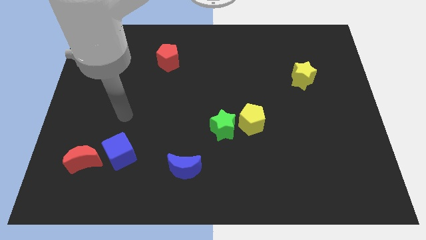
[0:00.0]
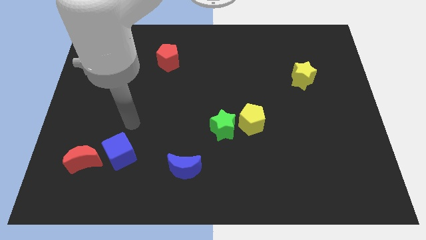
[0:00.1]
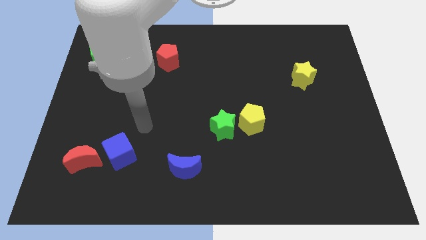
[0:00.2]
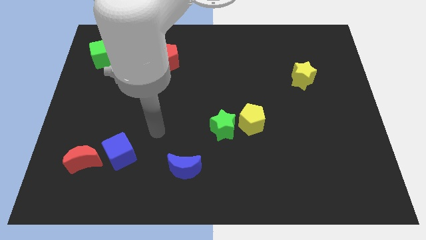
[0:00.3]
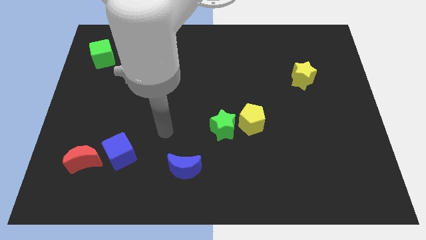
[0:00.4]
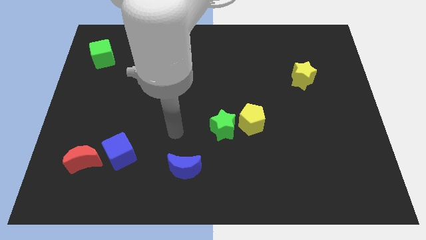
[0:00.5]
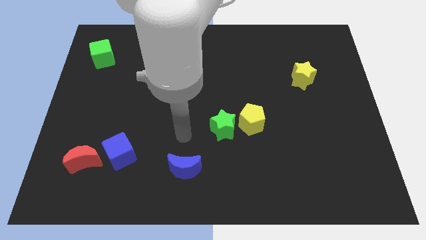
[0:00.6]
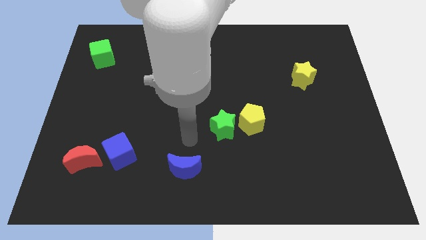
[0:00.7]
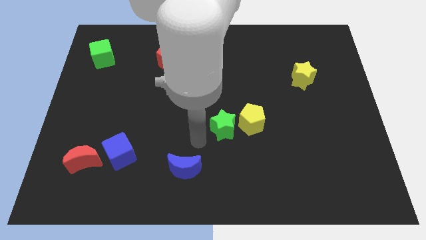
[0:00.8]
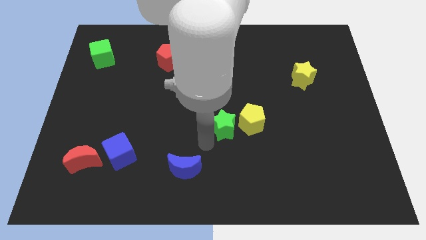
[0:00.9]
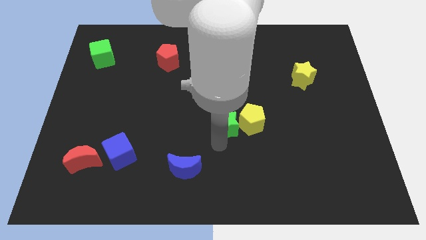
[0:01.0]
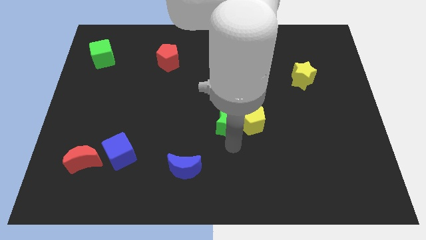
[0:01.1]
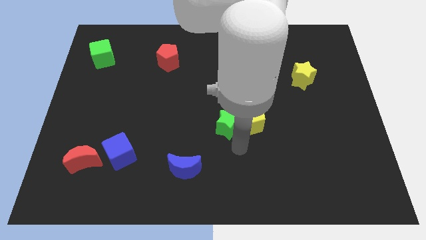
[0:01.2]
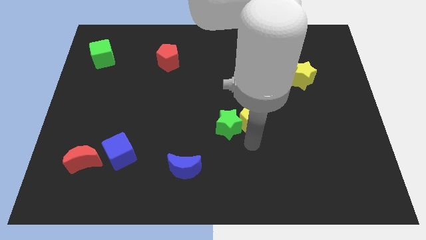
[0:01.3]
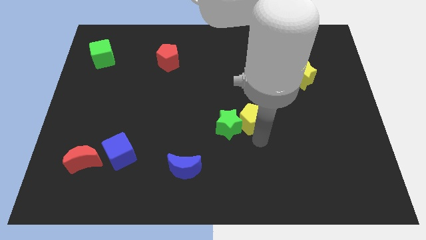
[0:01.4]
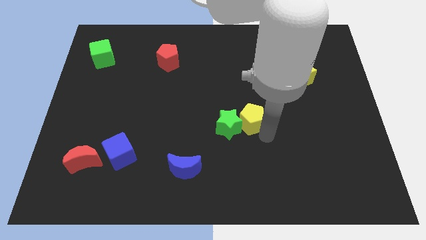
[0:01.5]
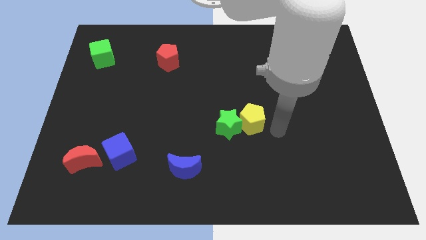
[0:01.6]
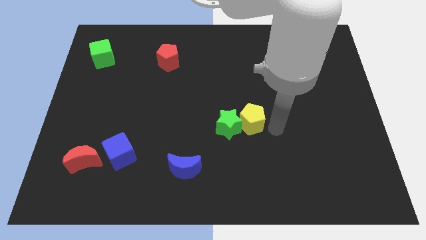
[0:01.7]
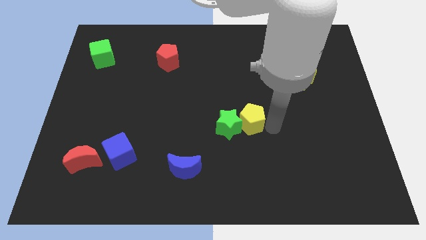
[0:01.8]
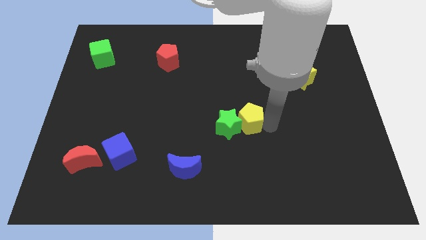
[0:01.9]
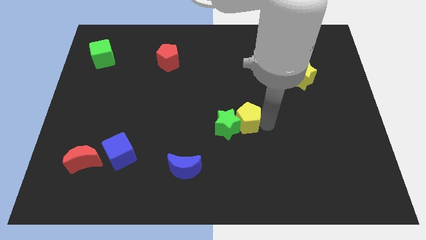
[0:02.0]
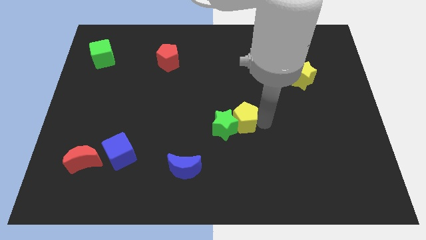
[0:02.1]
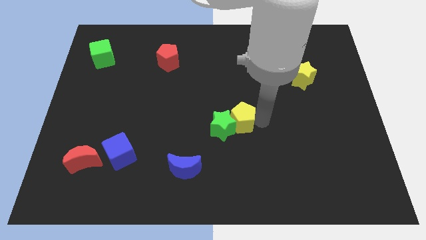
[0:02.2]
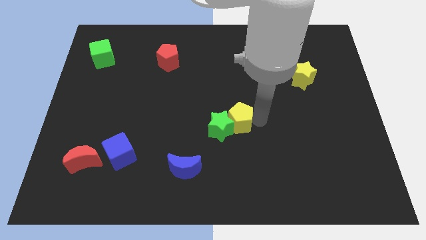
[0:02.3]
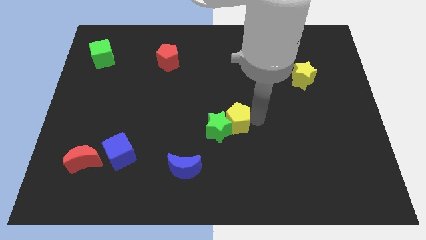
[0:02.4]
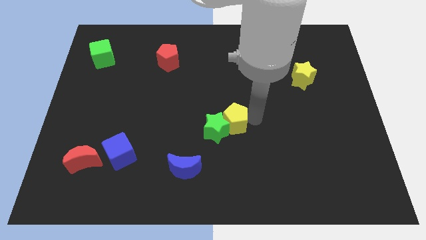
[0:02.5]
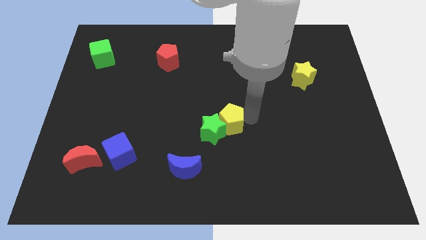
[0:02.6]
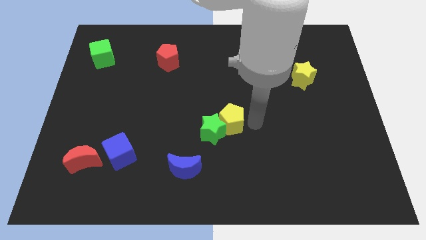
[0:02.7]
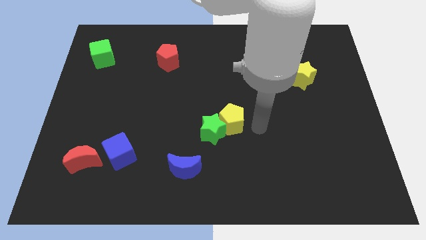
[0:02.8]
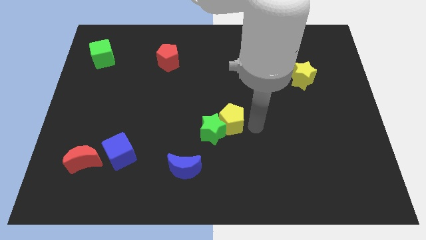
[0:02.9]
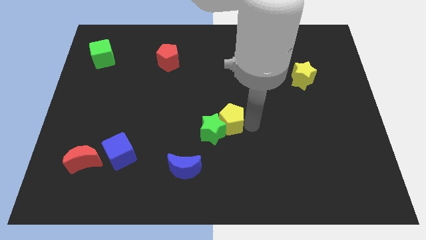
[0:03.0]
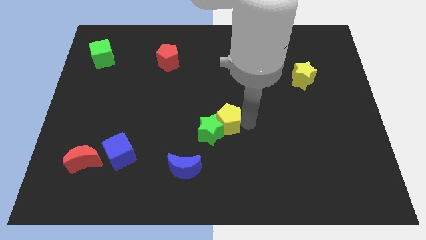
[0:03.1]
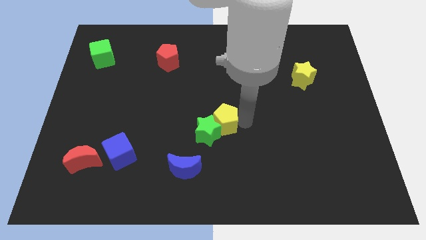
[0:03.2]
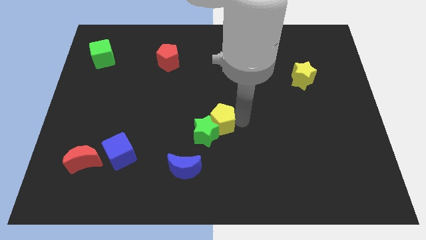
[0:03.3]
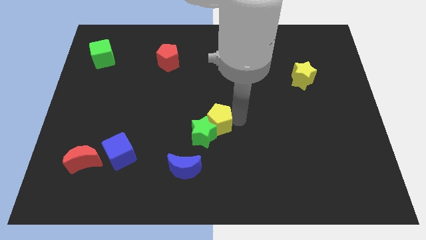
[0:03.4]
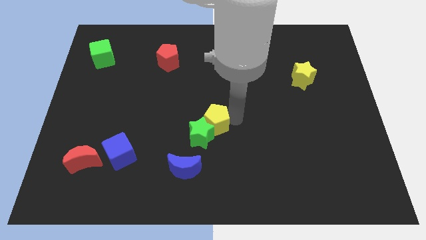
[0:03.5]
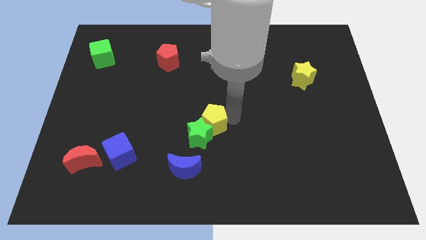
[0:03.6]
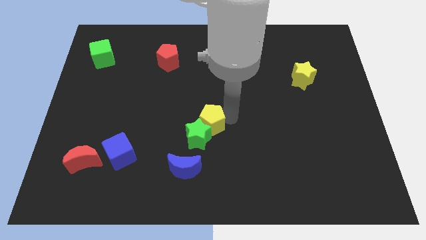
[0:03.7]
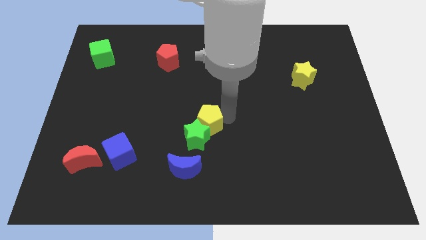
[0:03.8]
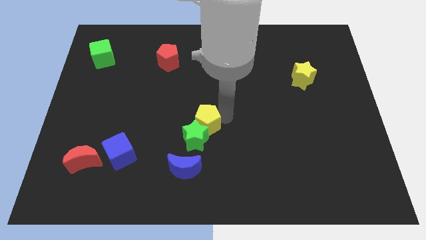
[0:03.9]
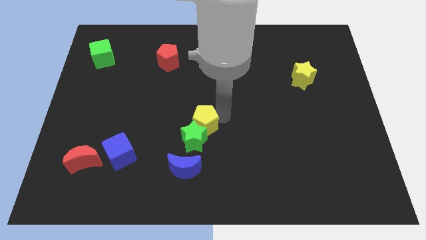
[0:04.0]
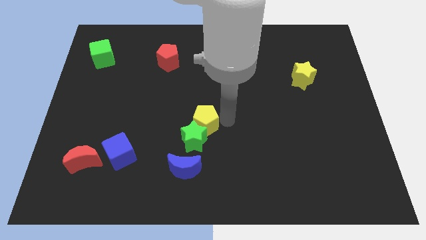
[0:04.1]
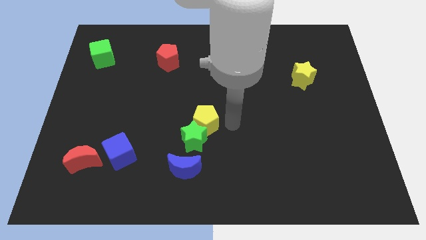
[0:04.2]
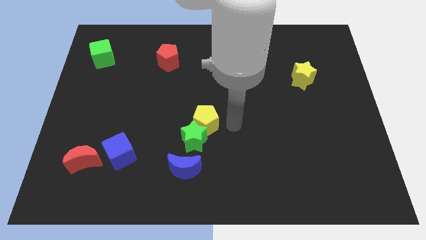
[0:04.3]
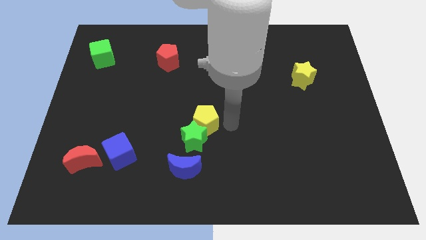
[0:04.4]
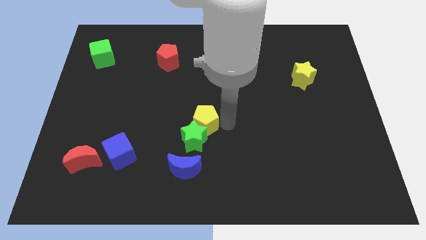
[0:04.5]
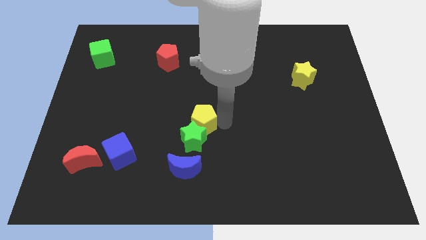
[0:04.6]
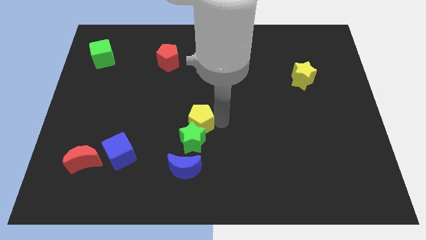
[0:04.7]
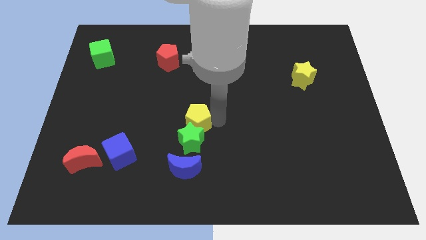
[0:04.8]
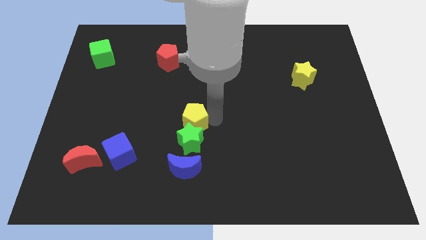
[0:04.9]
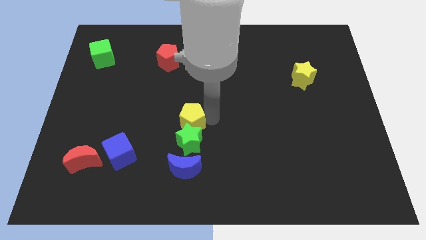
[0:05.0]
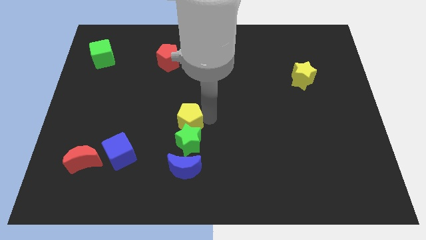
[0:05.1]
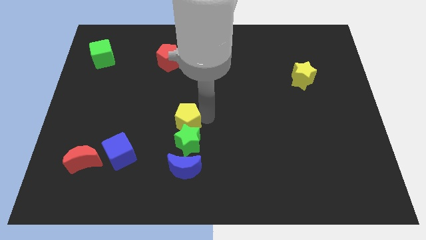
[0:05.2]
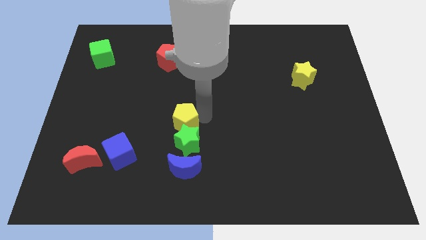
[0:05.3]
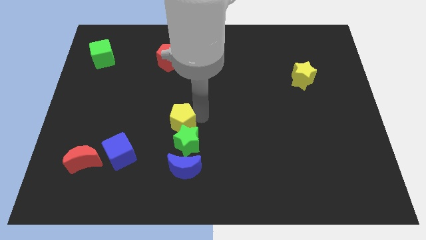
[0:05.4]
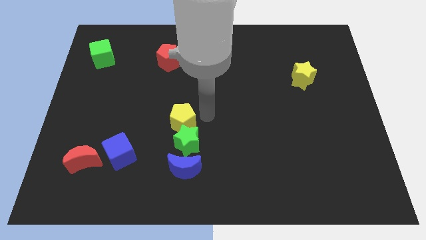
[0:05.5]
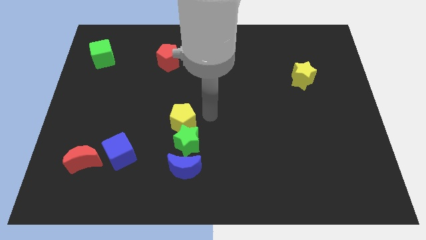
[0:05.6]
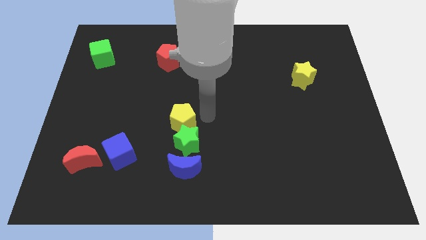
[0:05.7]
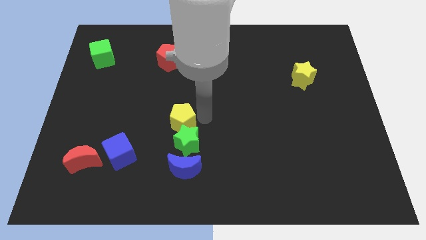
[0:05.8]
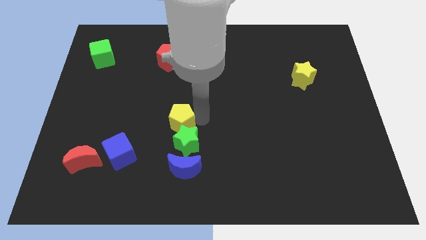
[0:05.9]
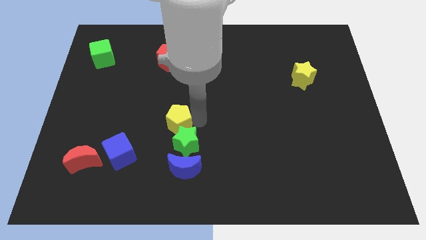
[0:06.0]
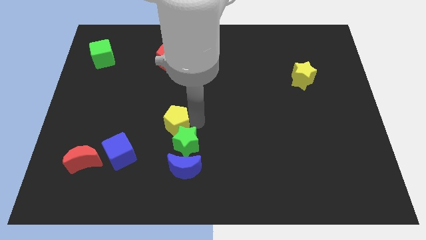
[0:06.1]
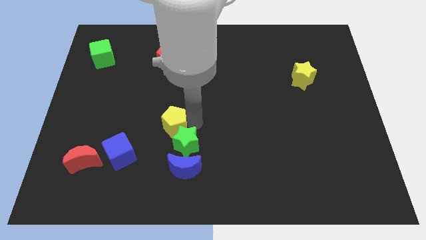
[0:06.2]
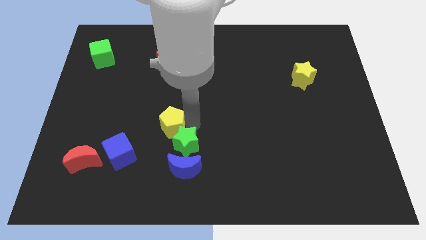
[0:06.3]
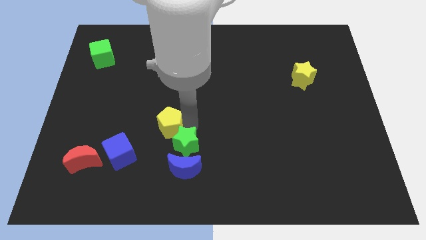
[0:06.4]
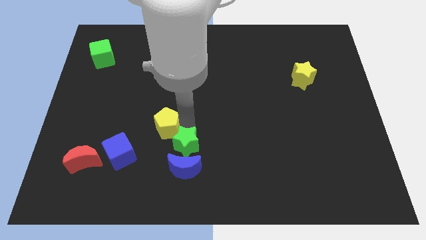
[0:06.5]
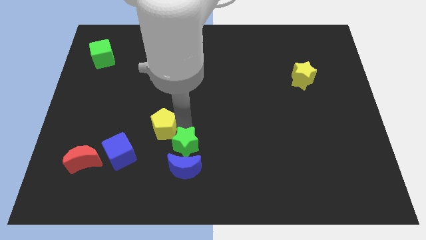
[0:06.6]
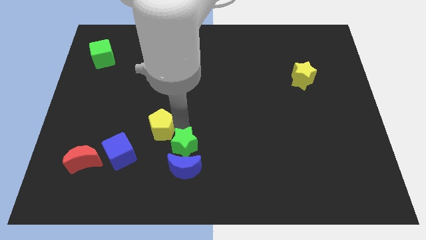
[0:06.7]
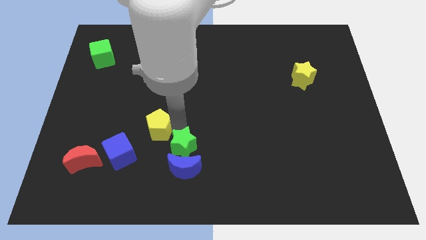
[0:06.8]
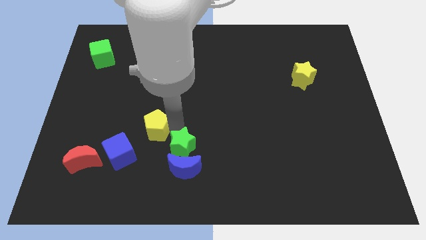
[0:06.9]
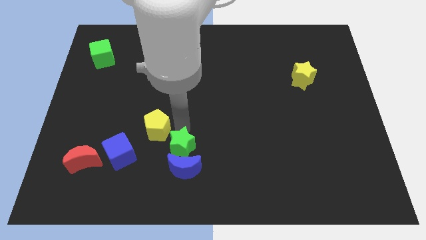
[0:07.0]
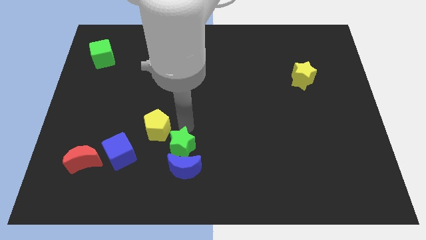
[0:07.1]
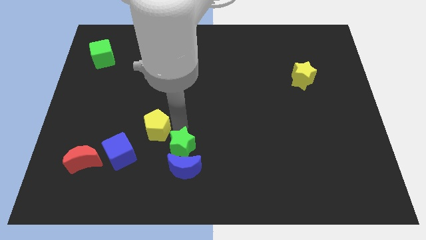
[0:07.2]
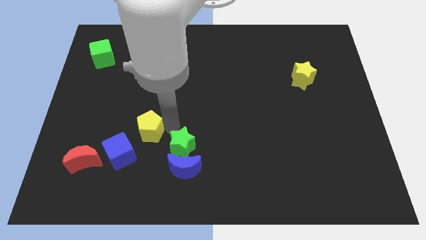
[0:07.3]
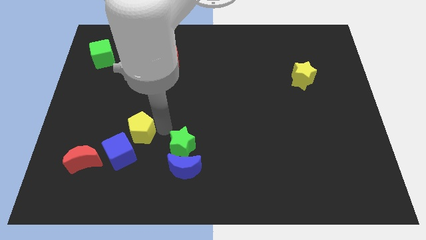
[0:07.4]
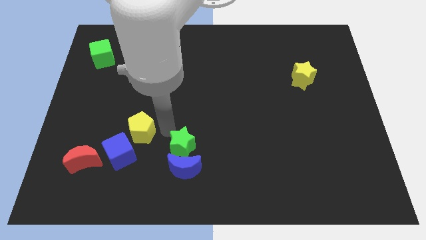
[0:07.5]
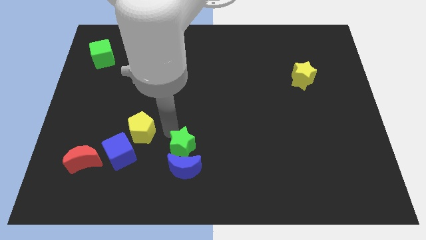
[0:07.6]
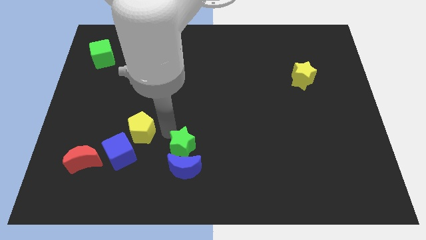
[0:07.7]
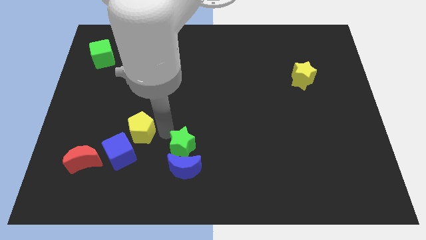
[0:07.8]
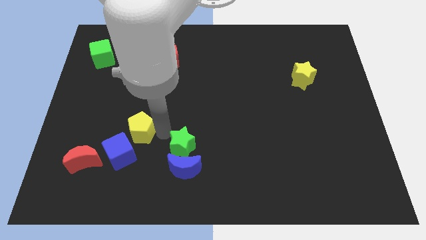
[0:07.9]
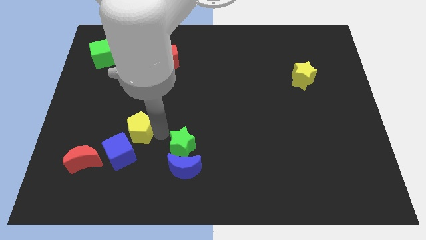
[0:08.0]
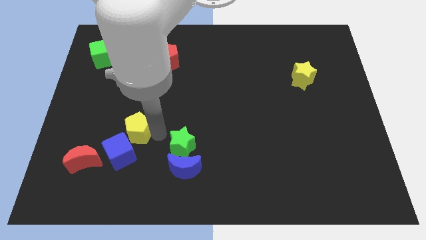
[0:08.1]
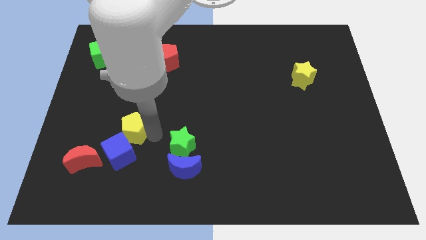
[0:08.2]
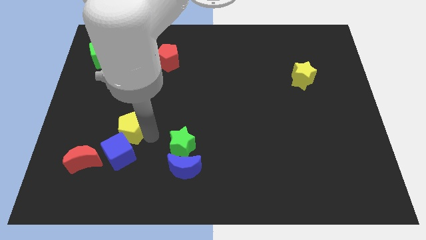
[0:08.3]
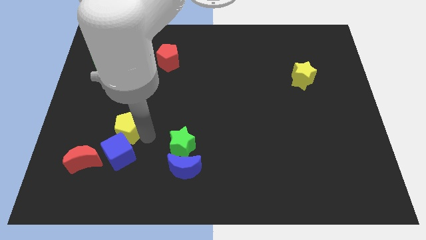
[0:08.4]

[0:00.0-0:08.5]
put the yellow pentagon to the top left side of the blue cube

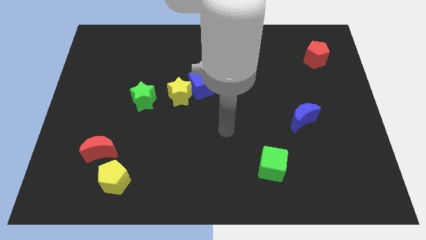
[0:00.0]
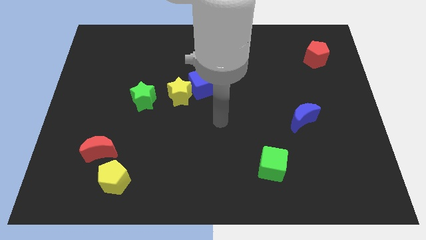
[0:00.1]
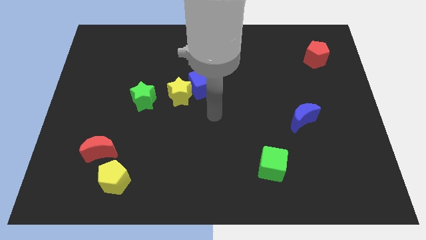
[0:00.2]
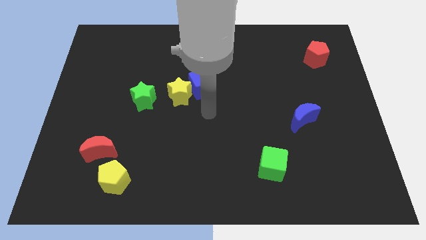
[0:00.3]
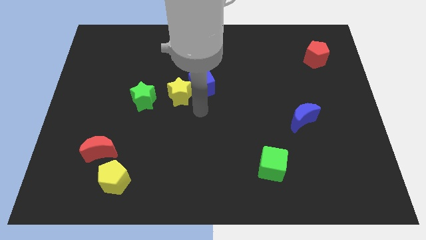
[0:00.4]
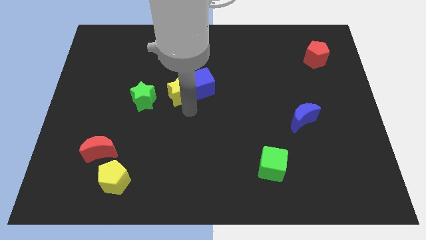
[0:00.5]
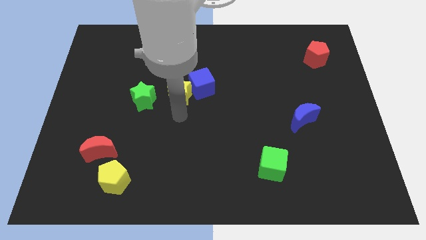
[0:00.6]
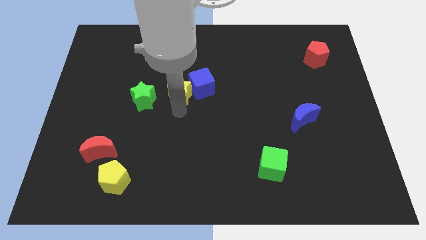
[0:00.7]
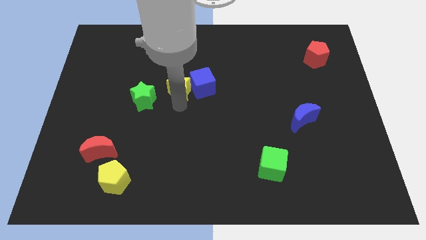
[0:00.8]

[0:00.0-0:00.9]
slide the yellow star to the top left side of the blue cube
